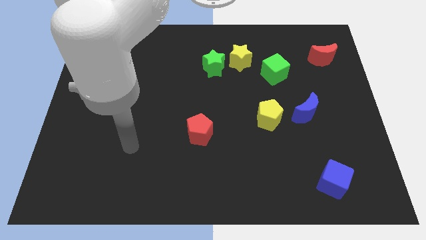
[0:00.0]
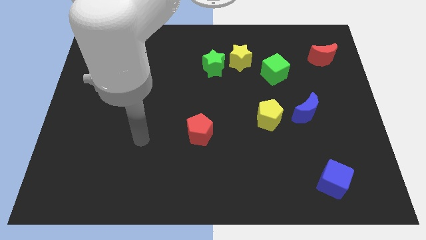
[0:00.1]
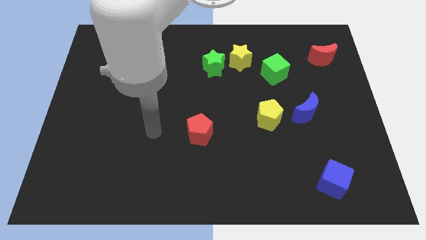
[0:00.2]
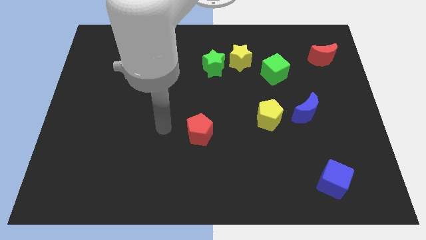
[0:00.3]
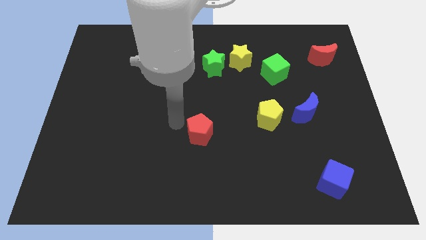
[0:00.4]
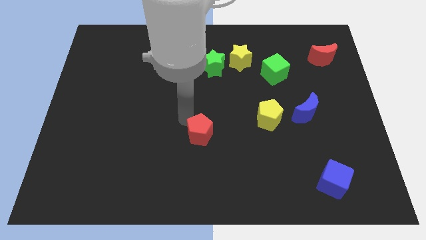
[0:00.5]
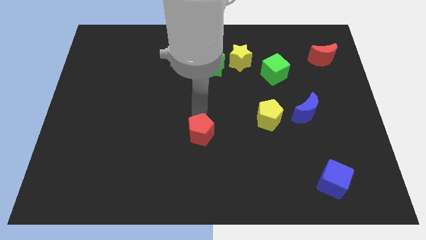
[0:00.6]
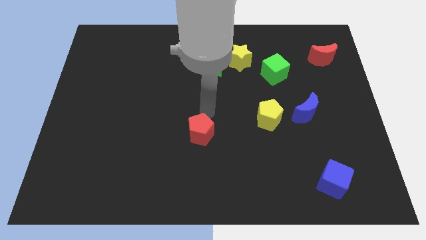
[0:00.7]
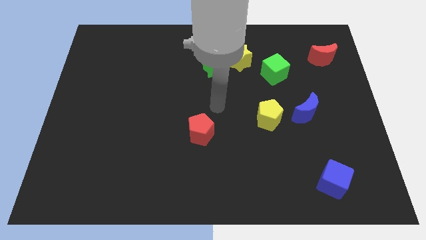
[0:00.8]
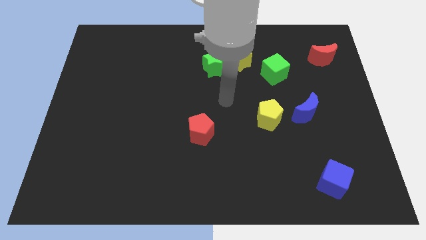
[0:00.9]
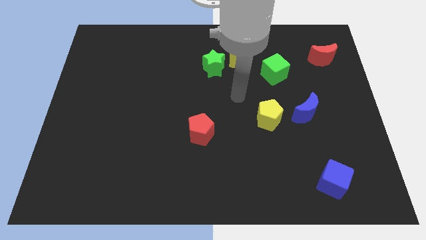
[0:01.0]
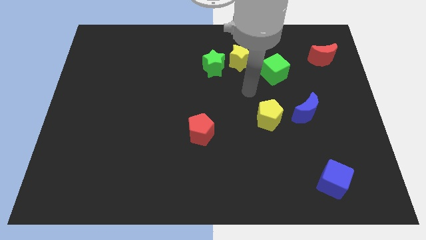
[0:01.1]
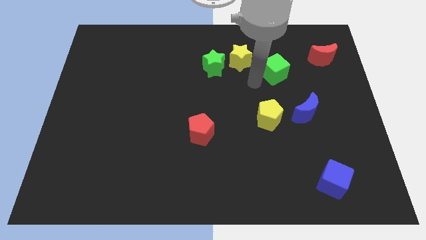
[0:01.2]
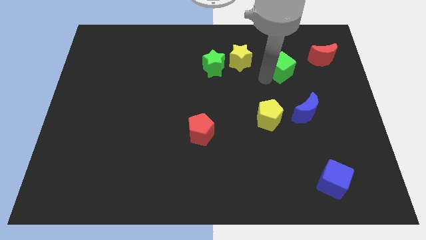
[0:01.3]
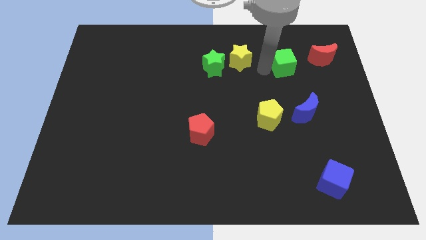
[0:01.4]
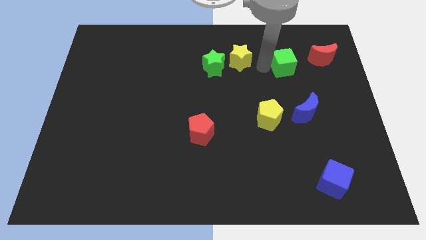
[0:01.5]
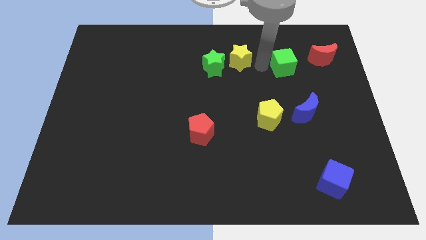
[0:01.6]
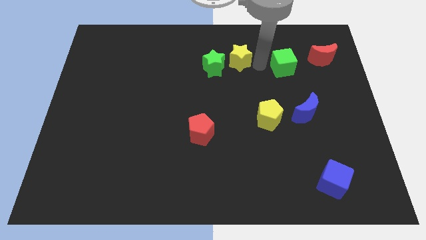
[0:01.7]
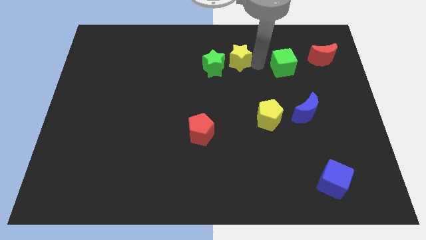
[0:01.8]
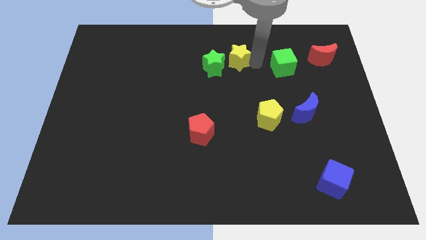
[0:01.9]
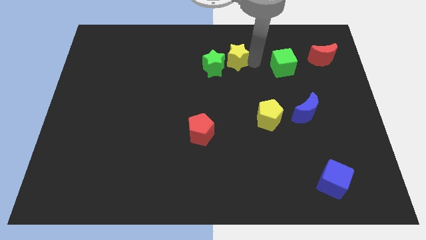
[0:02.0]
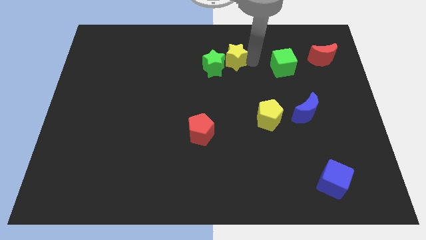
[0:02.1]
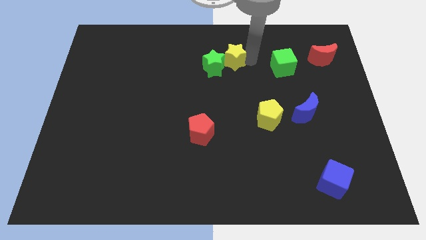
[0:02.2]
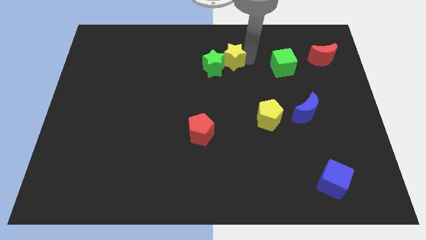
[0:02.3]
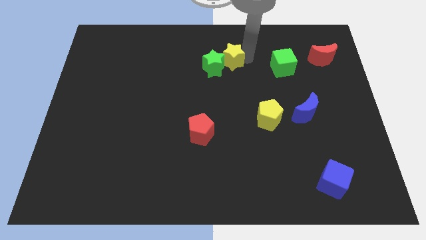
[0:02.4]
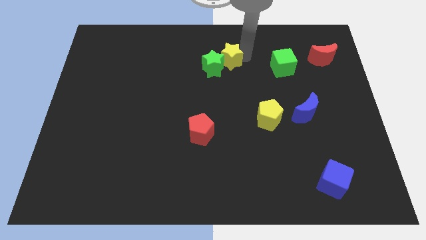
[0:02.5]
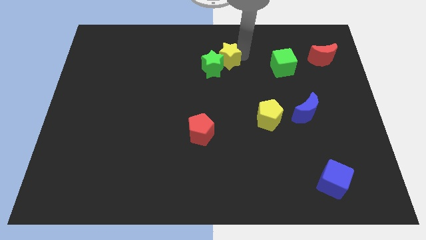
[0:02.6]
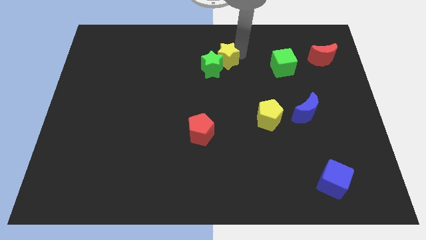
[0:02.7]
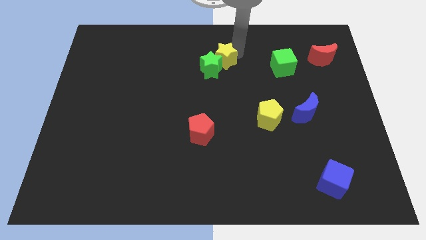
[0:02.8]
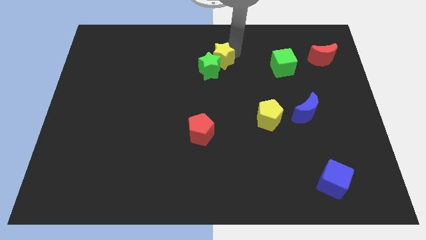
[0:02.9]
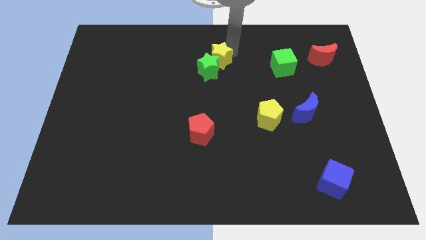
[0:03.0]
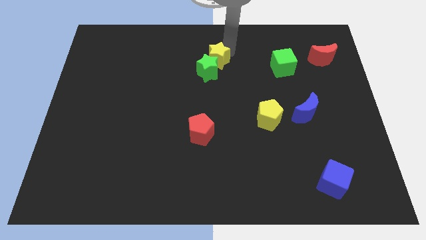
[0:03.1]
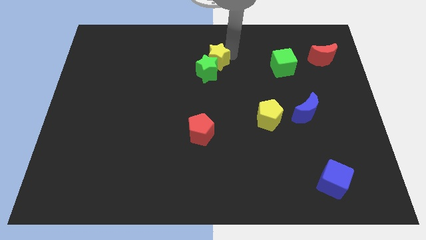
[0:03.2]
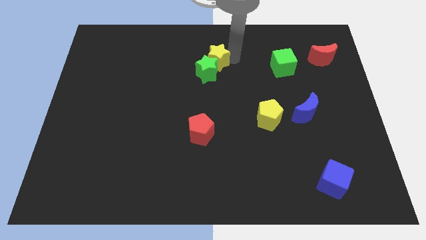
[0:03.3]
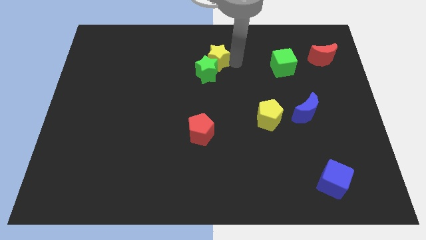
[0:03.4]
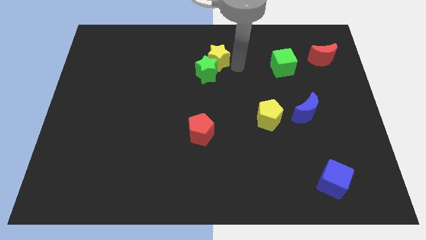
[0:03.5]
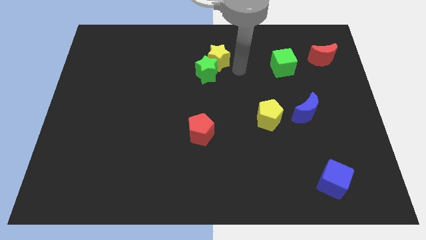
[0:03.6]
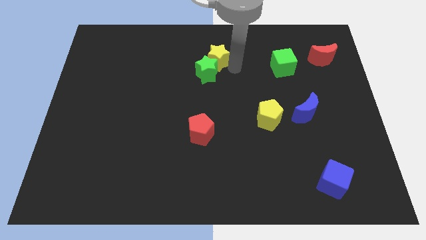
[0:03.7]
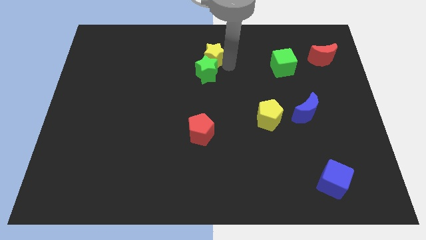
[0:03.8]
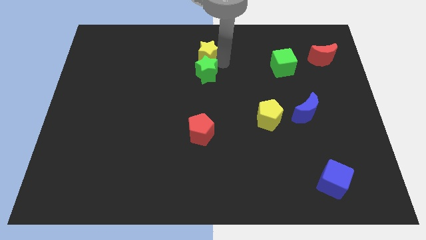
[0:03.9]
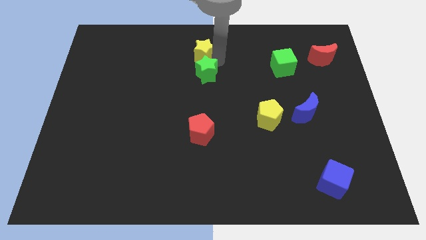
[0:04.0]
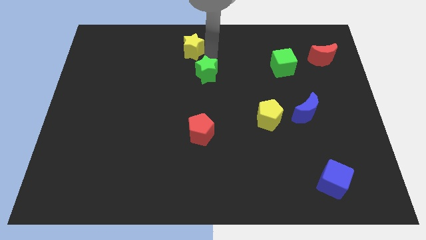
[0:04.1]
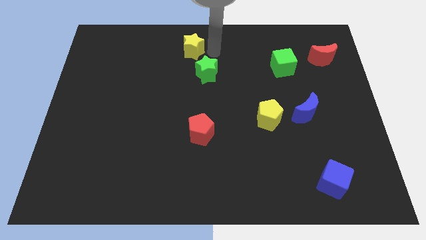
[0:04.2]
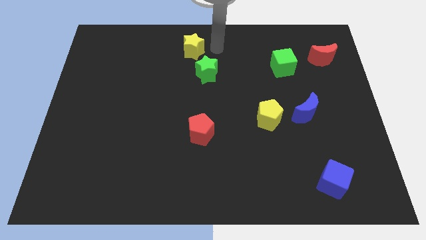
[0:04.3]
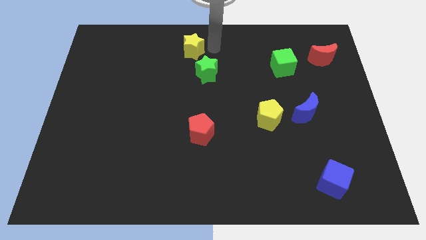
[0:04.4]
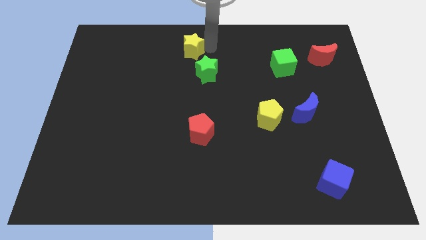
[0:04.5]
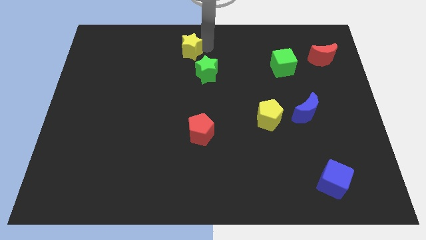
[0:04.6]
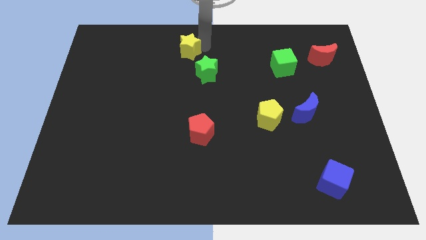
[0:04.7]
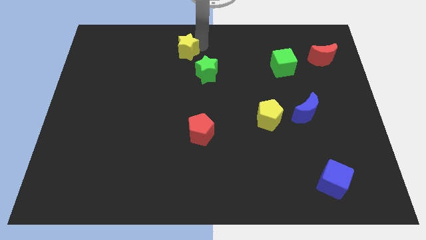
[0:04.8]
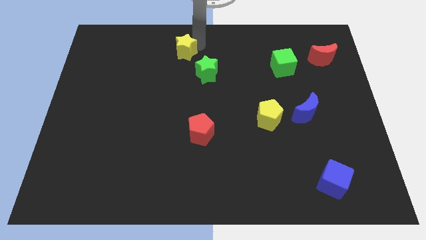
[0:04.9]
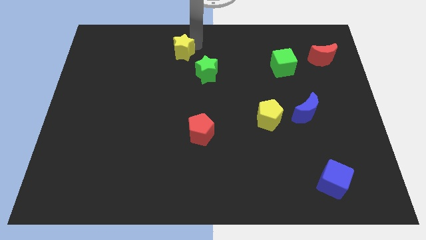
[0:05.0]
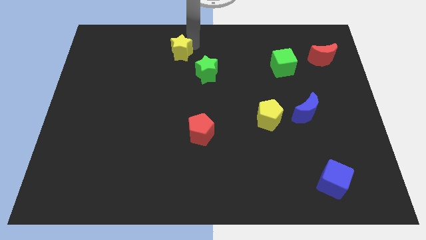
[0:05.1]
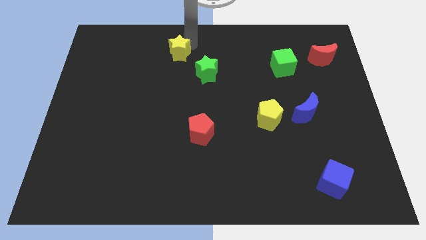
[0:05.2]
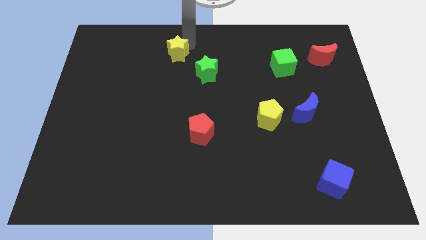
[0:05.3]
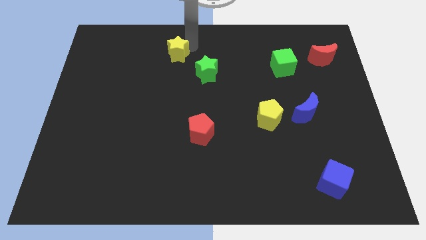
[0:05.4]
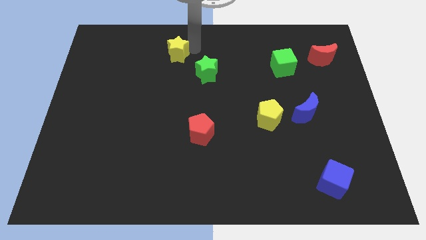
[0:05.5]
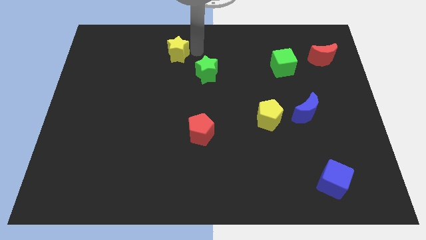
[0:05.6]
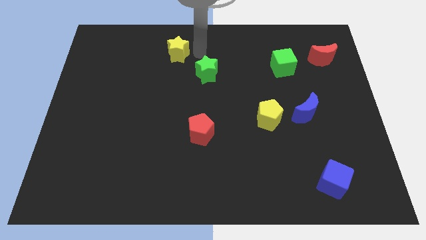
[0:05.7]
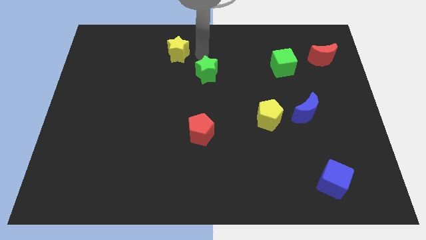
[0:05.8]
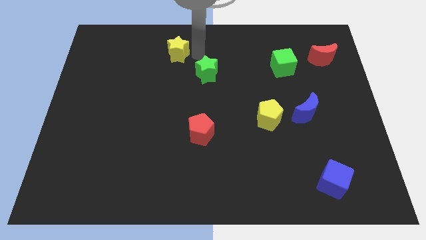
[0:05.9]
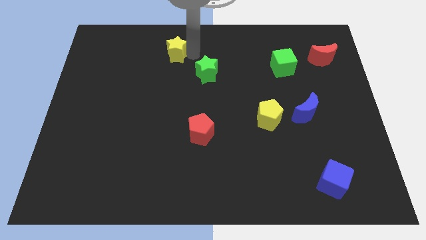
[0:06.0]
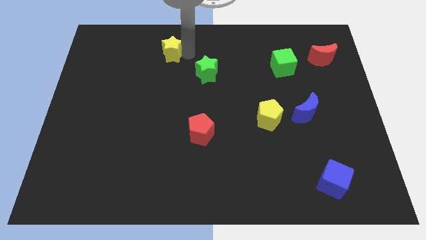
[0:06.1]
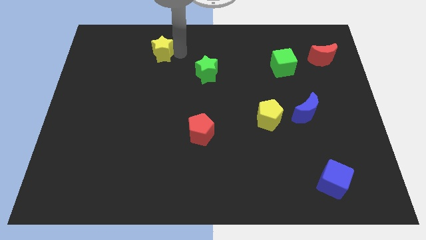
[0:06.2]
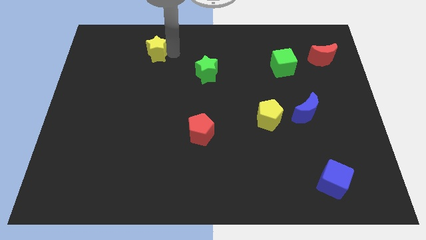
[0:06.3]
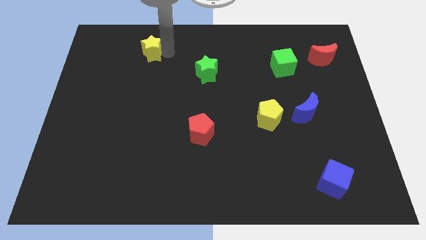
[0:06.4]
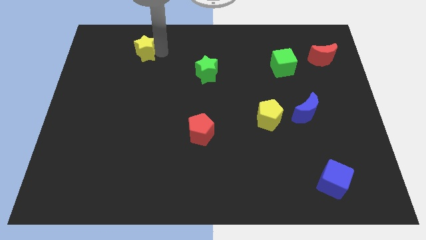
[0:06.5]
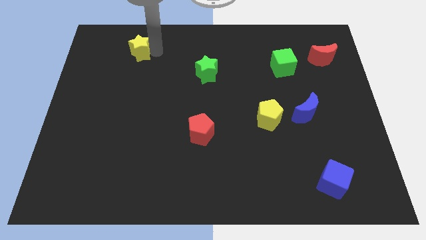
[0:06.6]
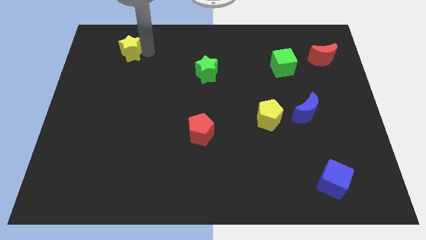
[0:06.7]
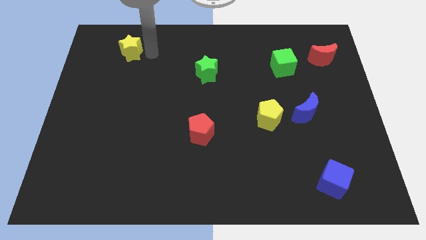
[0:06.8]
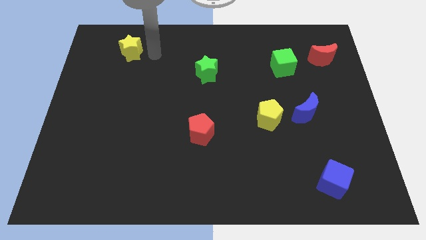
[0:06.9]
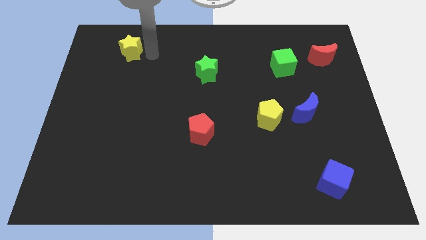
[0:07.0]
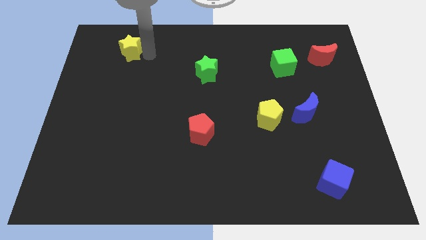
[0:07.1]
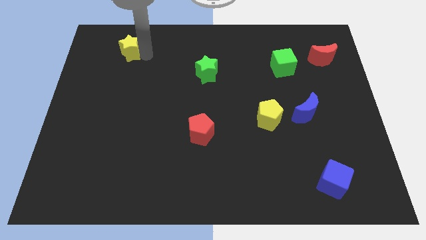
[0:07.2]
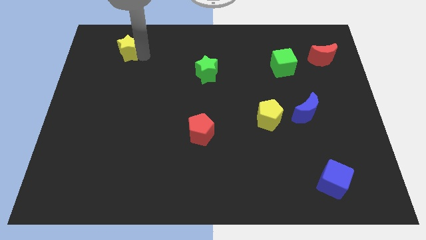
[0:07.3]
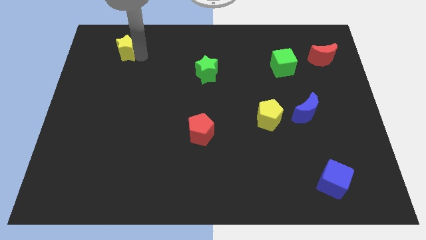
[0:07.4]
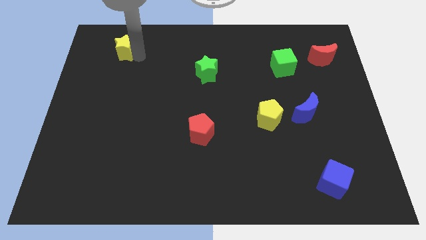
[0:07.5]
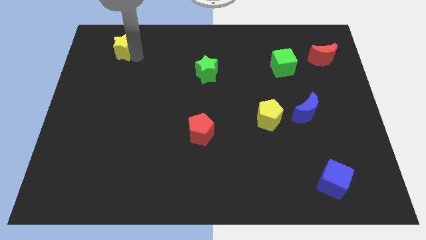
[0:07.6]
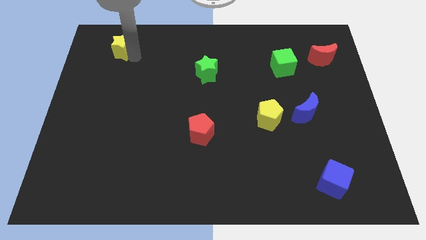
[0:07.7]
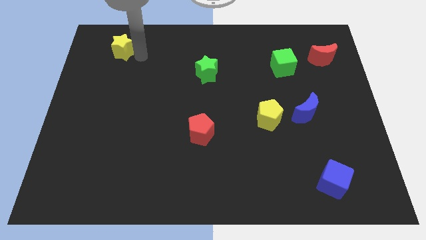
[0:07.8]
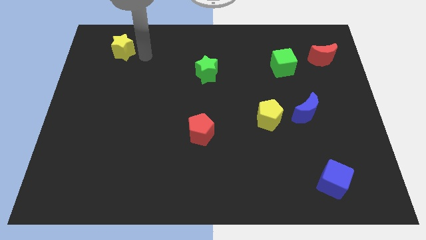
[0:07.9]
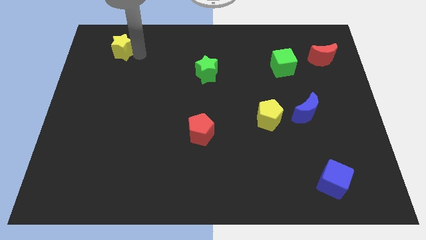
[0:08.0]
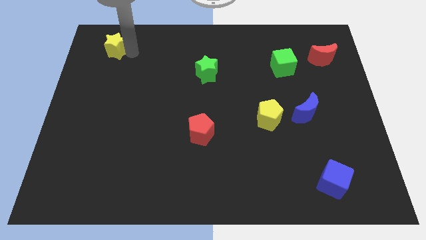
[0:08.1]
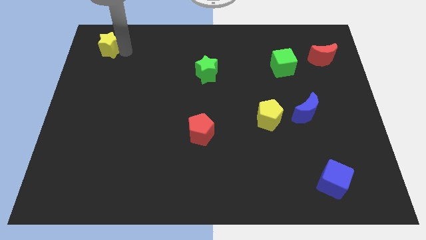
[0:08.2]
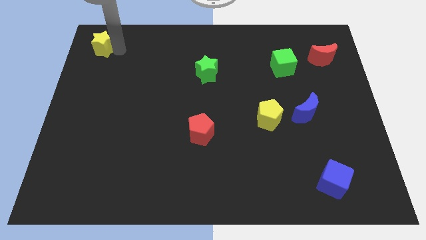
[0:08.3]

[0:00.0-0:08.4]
put the yellow star to the top left of the board
